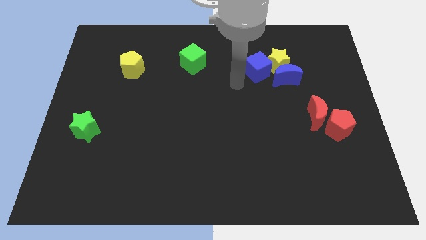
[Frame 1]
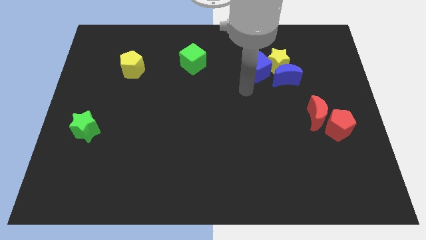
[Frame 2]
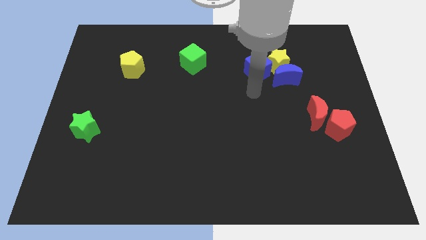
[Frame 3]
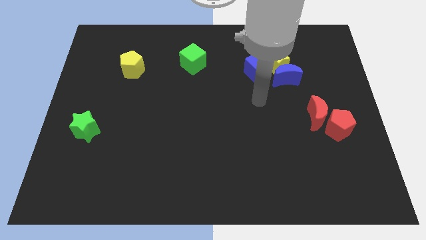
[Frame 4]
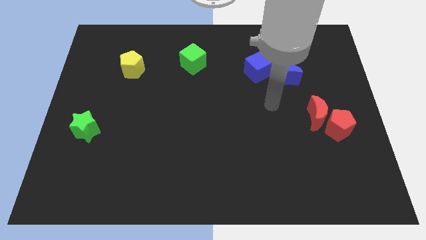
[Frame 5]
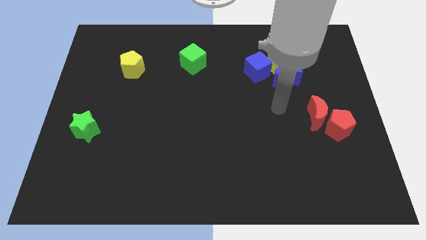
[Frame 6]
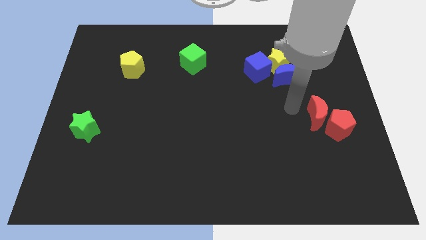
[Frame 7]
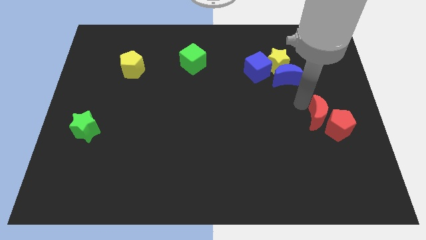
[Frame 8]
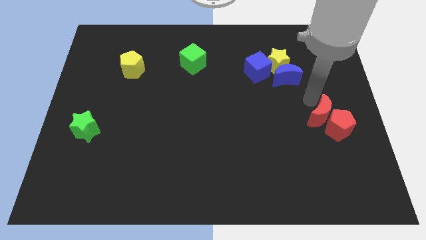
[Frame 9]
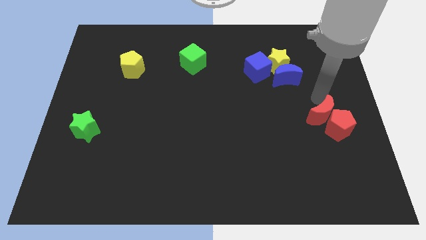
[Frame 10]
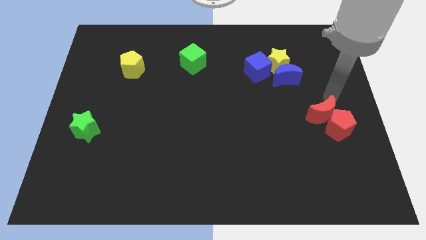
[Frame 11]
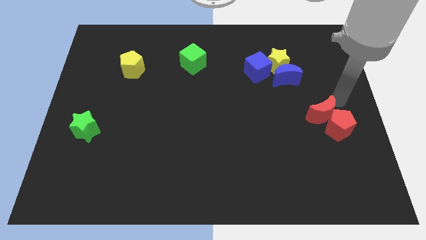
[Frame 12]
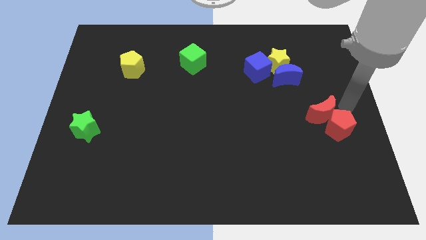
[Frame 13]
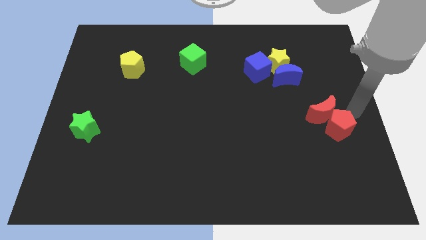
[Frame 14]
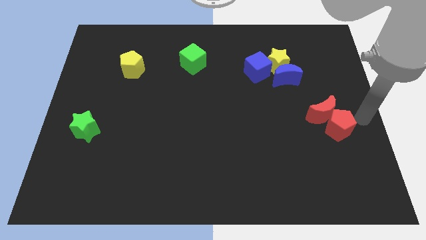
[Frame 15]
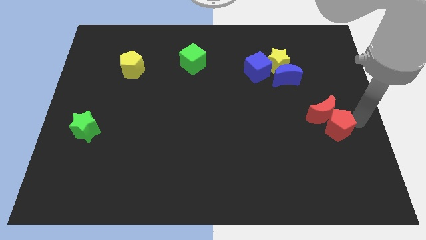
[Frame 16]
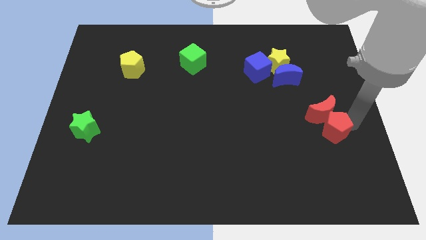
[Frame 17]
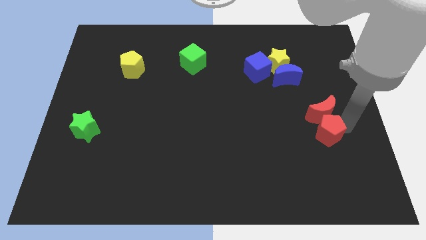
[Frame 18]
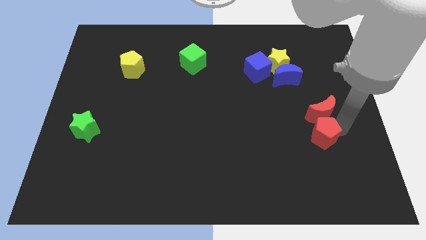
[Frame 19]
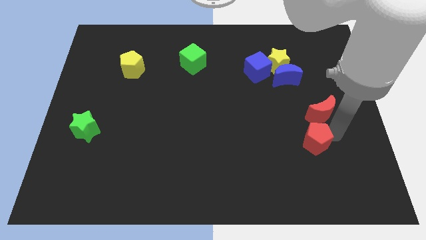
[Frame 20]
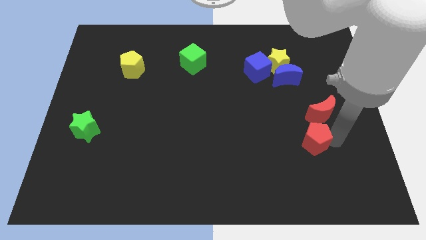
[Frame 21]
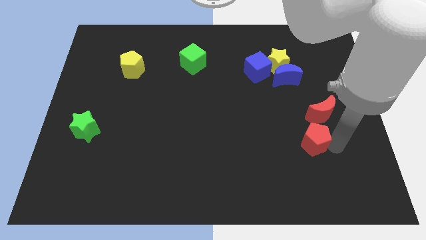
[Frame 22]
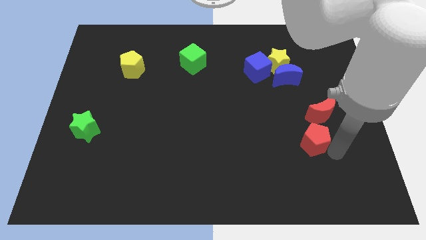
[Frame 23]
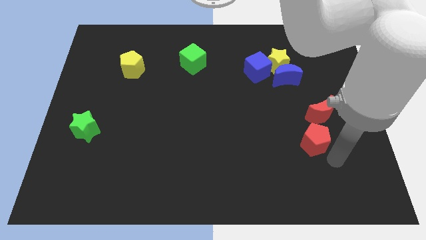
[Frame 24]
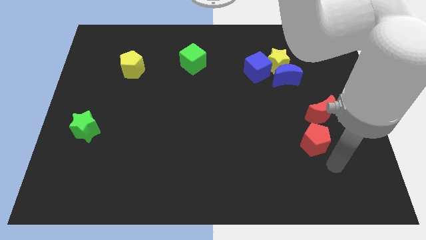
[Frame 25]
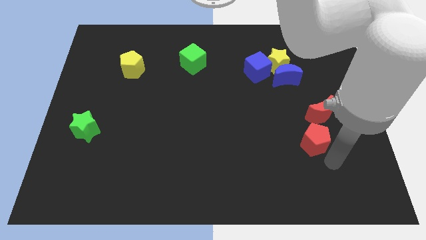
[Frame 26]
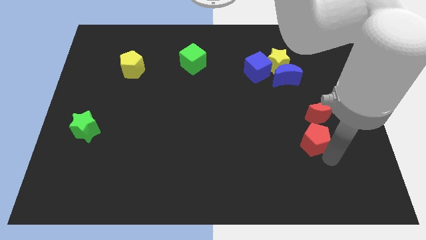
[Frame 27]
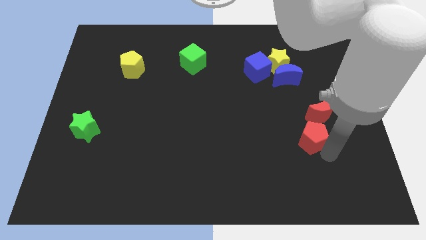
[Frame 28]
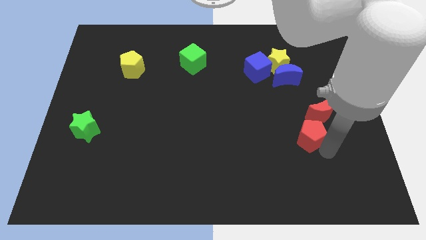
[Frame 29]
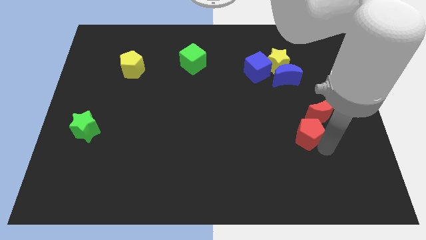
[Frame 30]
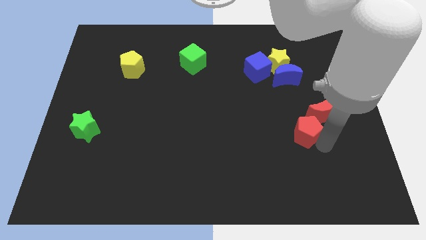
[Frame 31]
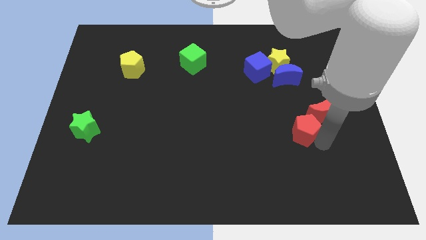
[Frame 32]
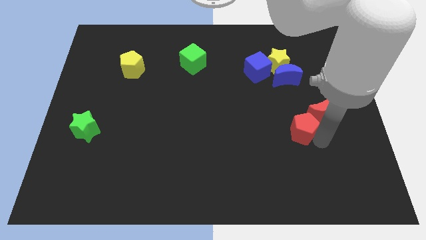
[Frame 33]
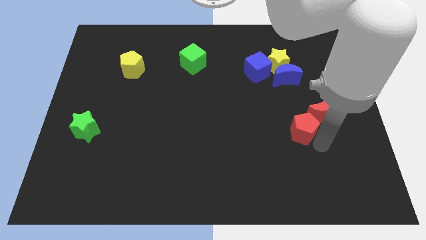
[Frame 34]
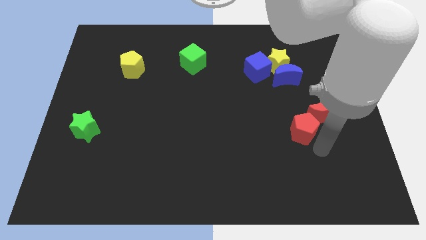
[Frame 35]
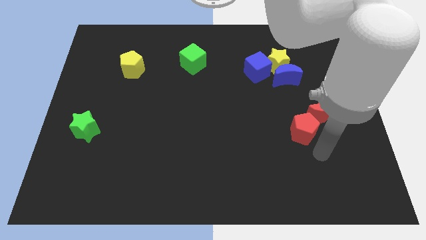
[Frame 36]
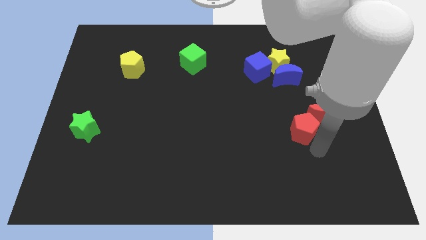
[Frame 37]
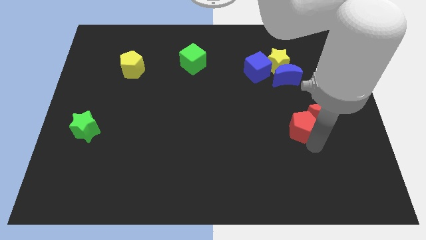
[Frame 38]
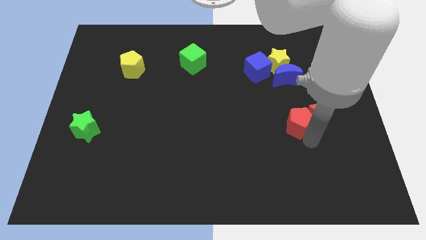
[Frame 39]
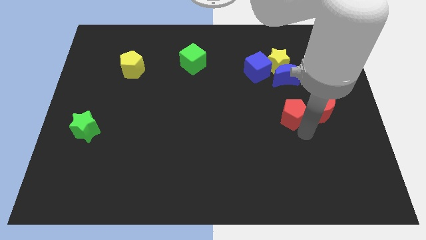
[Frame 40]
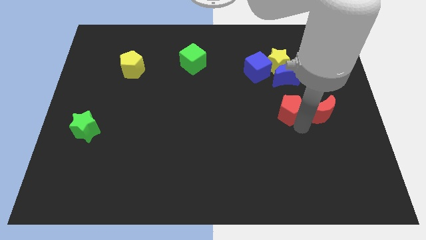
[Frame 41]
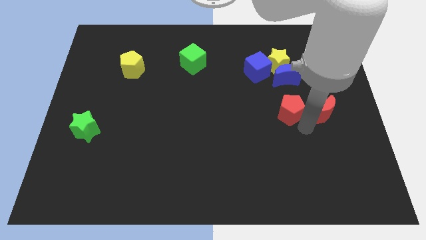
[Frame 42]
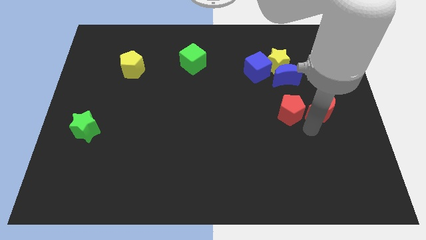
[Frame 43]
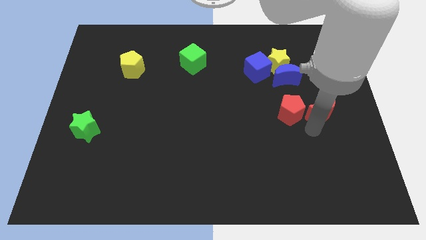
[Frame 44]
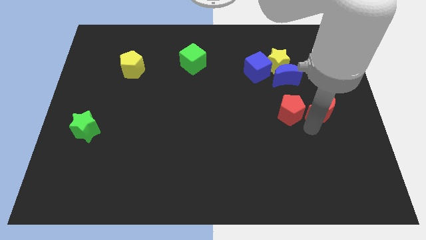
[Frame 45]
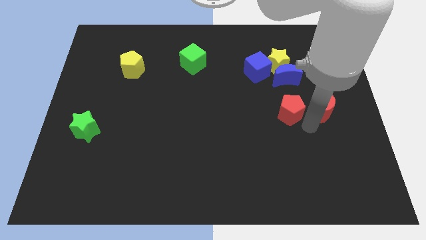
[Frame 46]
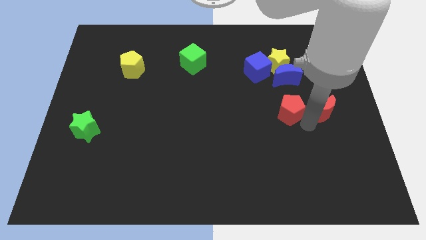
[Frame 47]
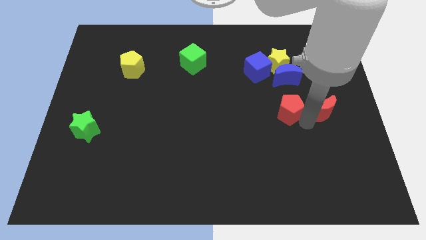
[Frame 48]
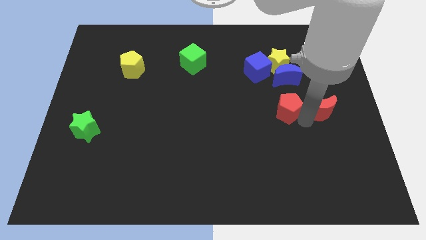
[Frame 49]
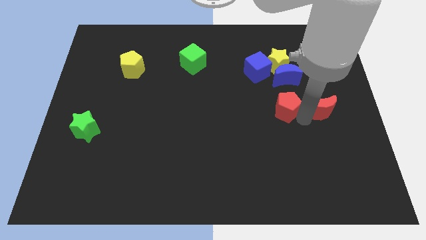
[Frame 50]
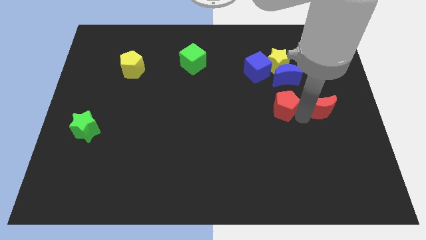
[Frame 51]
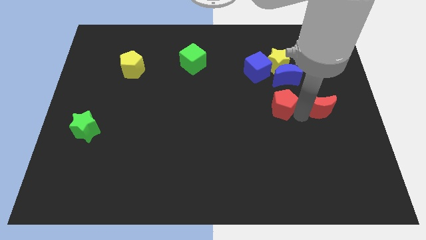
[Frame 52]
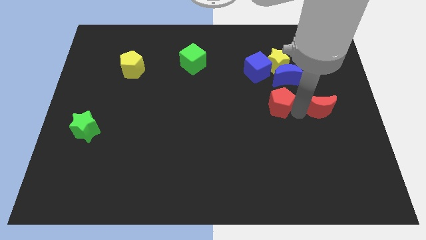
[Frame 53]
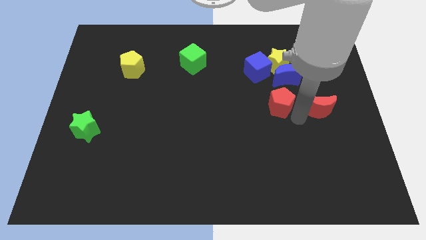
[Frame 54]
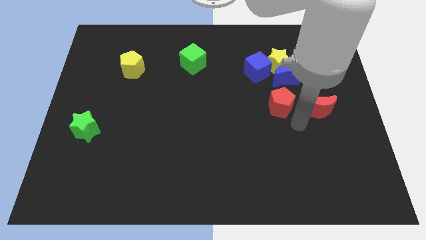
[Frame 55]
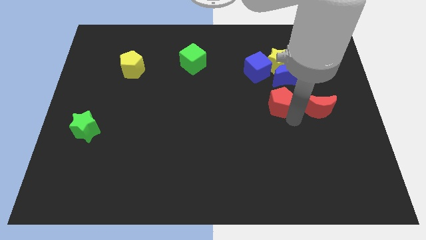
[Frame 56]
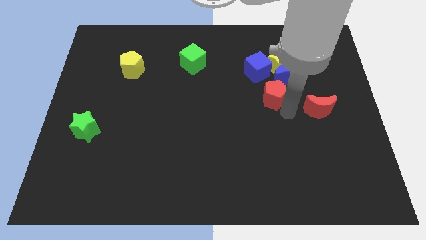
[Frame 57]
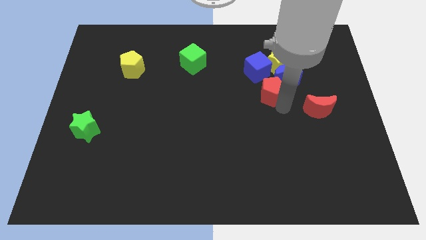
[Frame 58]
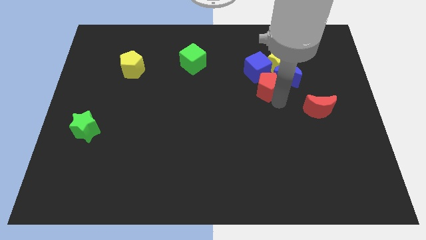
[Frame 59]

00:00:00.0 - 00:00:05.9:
put the red pentagon to the bottom left side of the yellow star

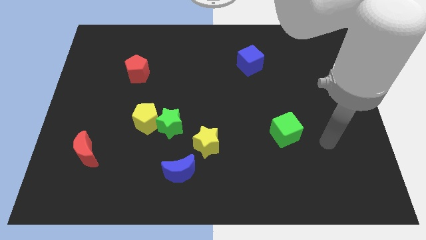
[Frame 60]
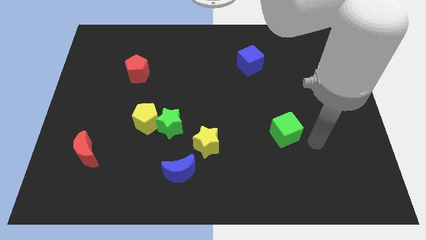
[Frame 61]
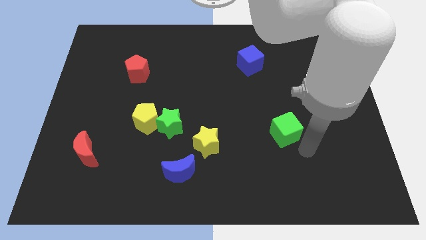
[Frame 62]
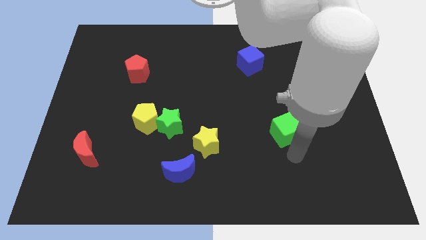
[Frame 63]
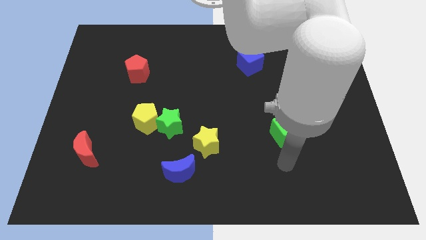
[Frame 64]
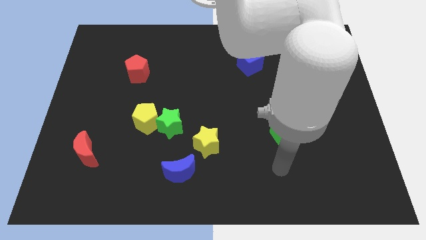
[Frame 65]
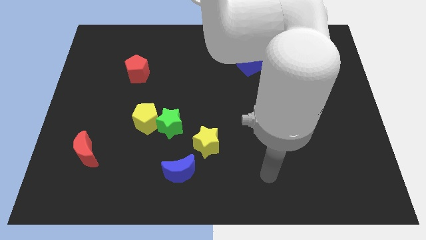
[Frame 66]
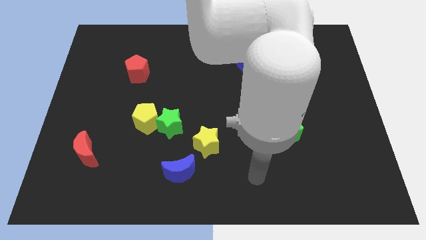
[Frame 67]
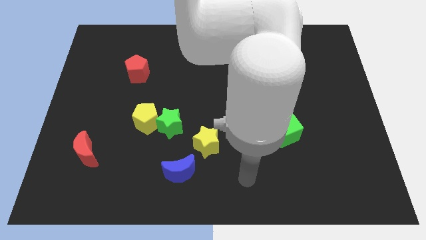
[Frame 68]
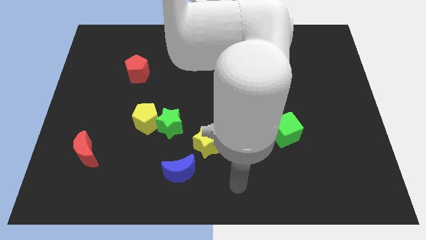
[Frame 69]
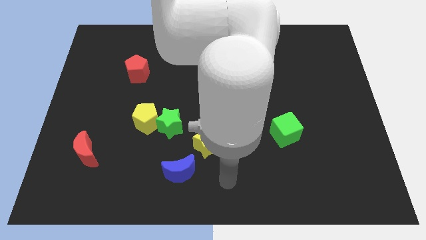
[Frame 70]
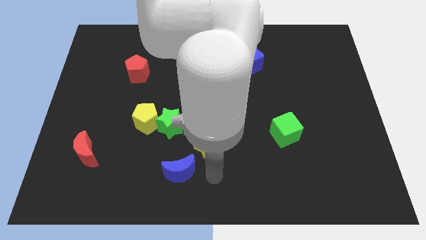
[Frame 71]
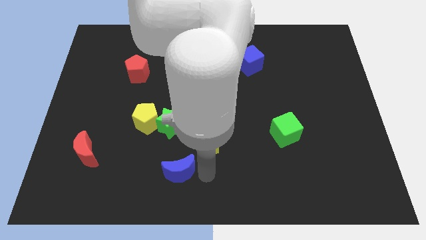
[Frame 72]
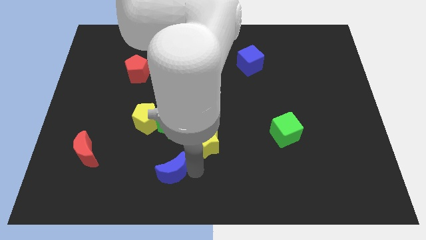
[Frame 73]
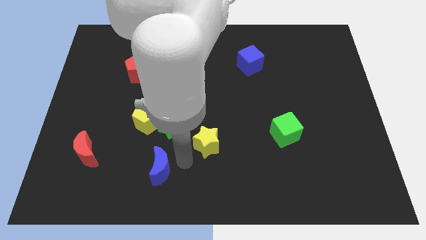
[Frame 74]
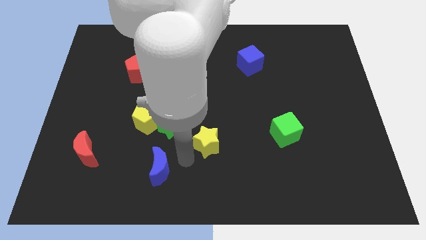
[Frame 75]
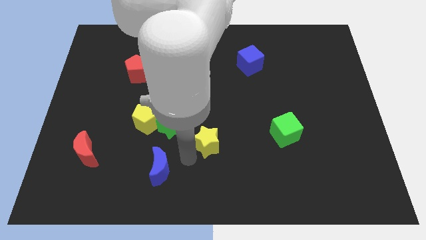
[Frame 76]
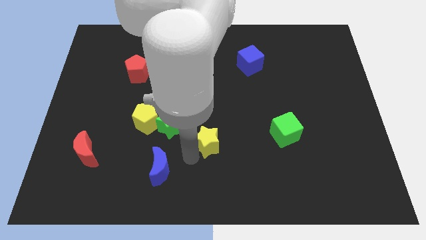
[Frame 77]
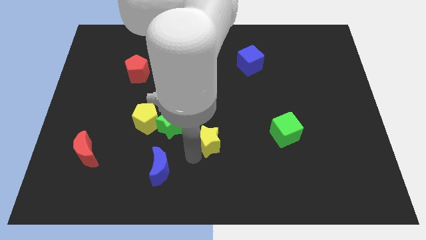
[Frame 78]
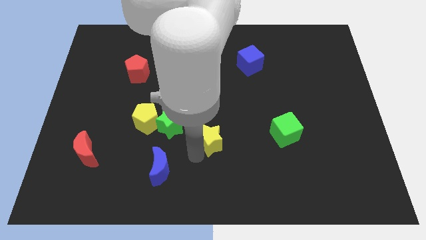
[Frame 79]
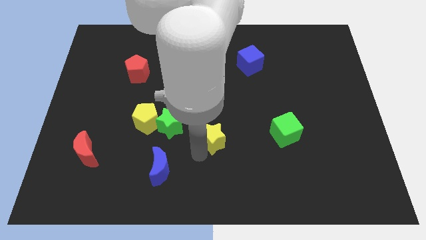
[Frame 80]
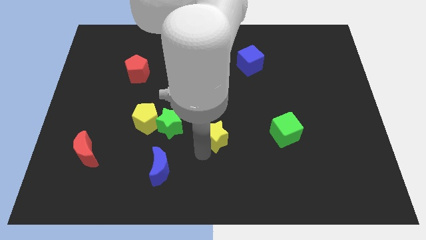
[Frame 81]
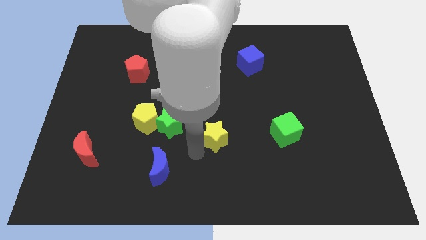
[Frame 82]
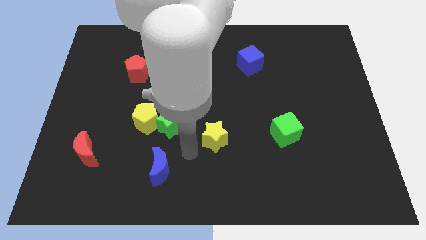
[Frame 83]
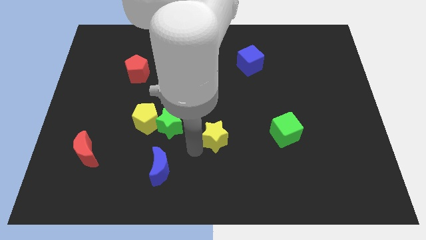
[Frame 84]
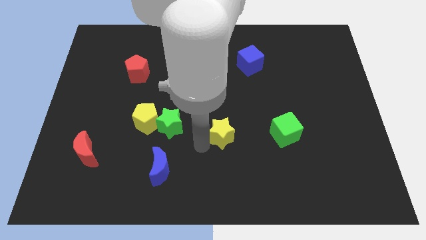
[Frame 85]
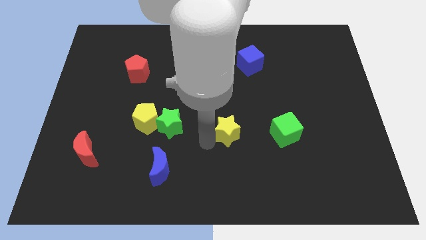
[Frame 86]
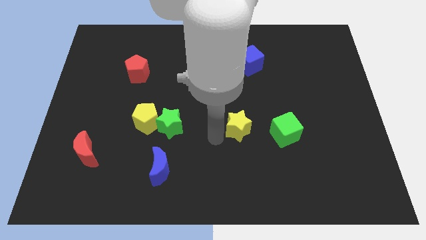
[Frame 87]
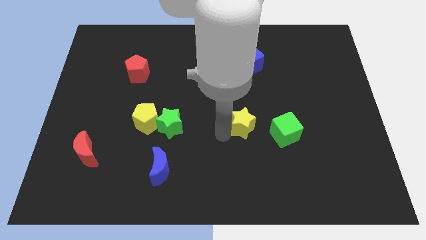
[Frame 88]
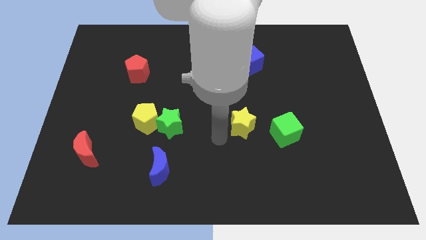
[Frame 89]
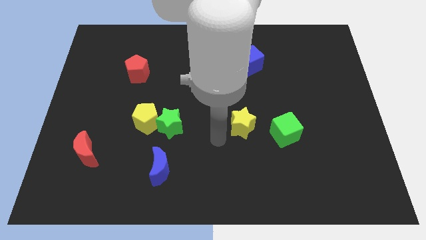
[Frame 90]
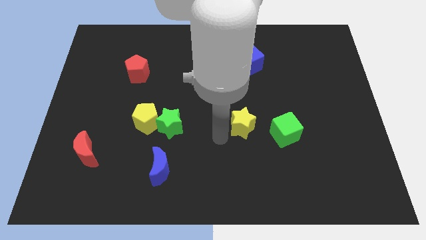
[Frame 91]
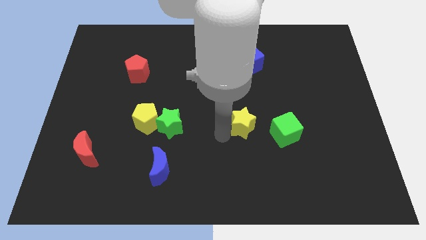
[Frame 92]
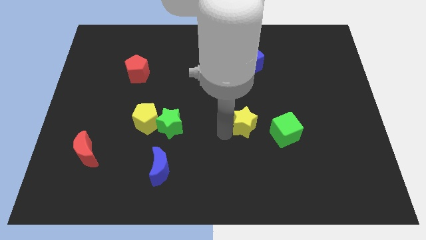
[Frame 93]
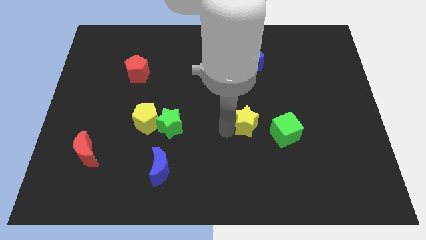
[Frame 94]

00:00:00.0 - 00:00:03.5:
push the yellow star to the top left side of the green cube
